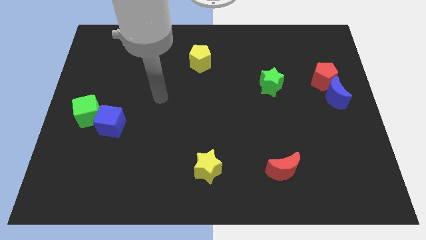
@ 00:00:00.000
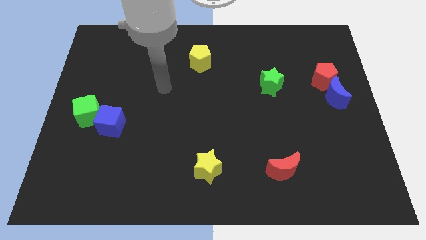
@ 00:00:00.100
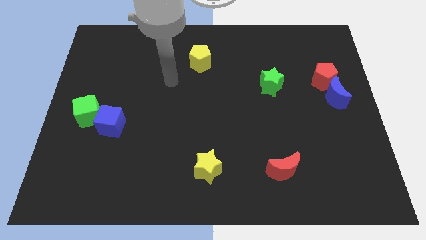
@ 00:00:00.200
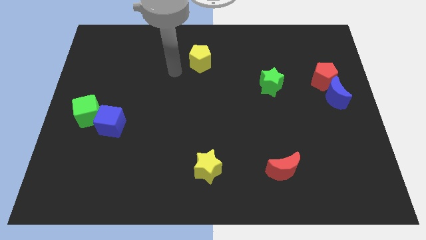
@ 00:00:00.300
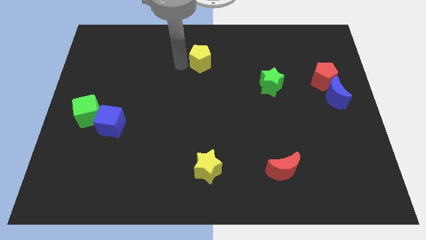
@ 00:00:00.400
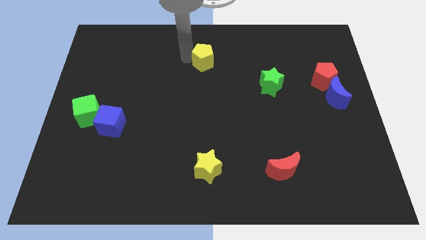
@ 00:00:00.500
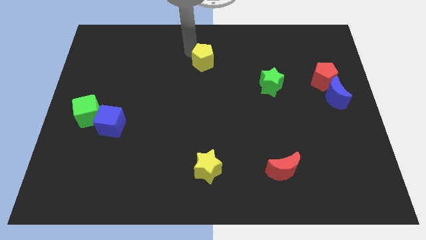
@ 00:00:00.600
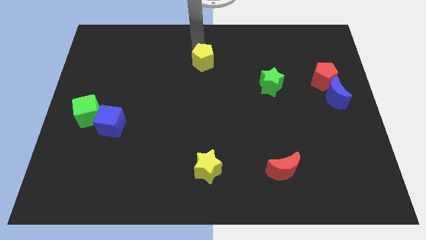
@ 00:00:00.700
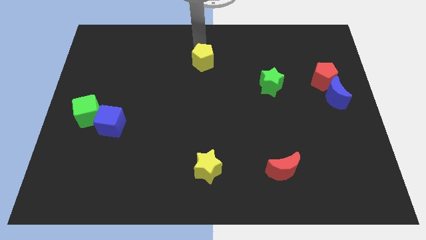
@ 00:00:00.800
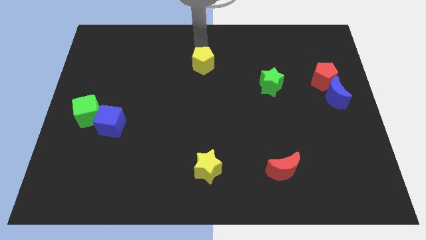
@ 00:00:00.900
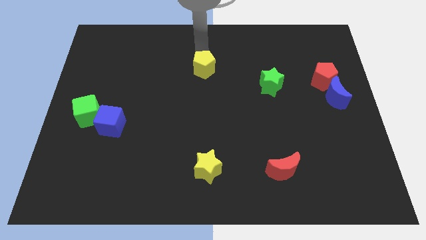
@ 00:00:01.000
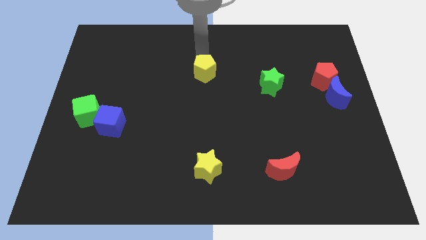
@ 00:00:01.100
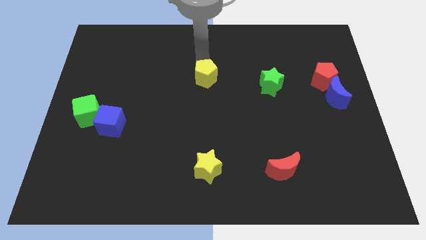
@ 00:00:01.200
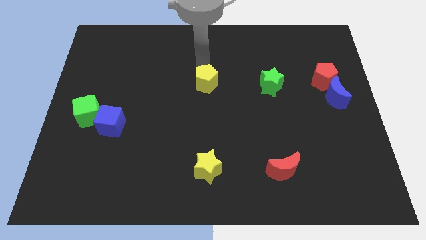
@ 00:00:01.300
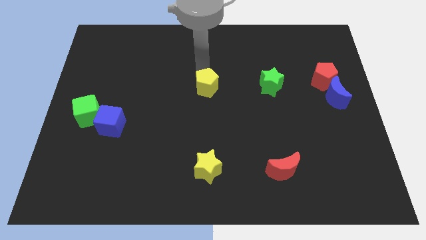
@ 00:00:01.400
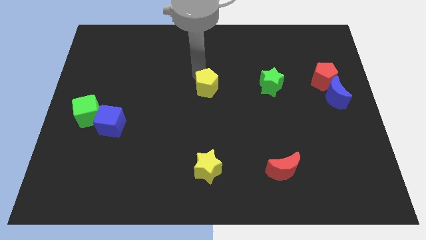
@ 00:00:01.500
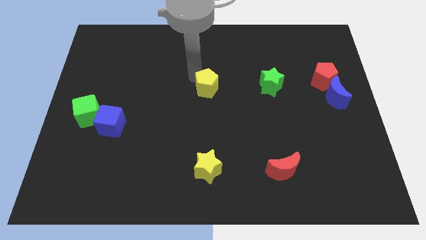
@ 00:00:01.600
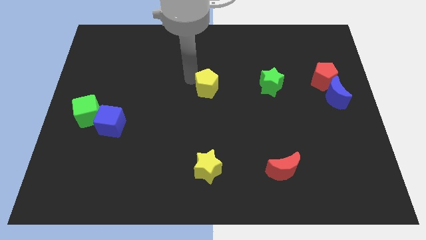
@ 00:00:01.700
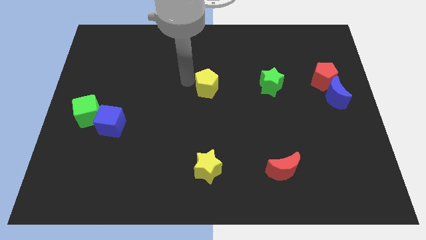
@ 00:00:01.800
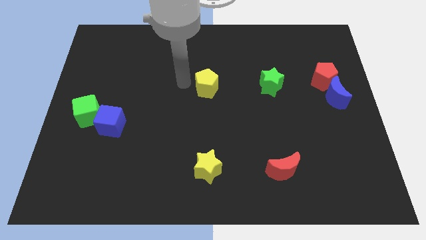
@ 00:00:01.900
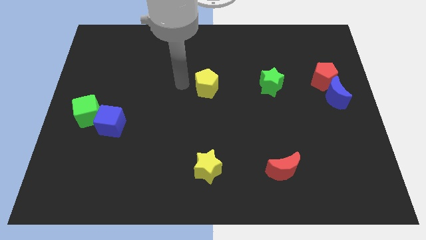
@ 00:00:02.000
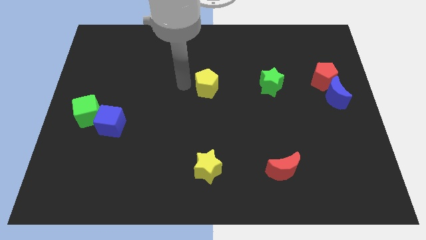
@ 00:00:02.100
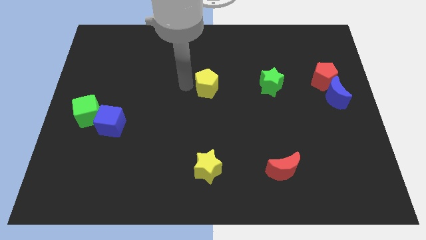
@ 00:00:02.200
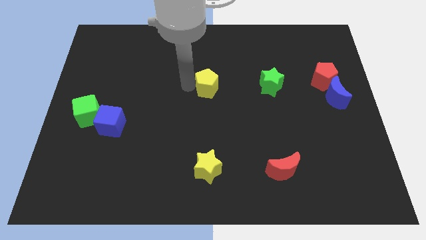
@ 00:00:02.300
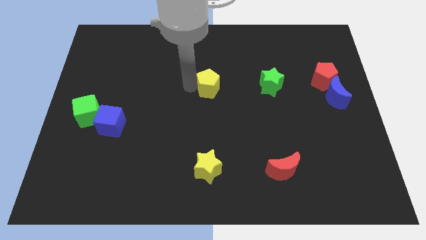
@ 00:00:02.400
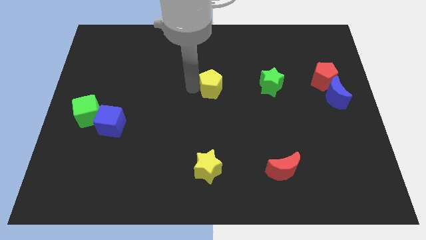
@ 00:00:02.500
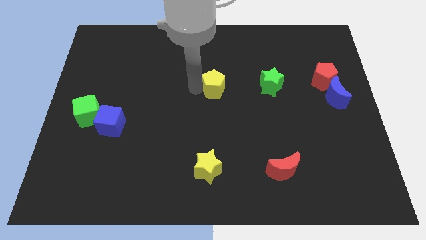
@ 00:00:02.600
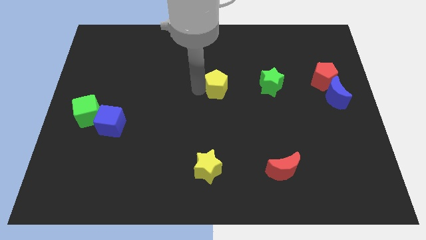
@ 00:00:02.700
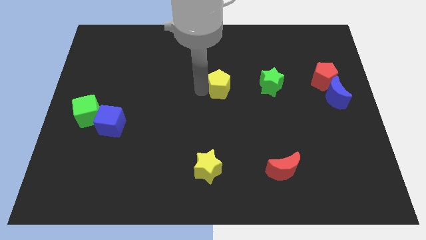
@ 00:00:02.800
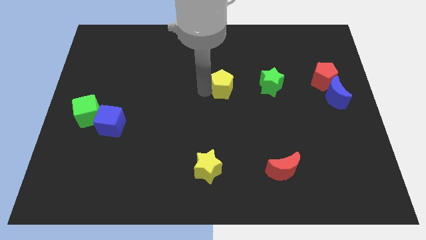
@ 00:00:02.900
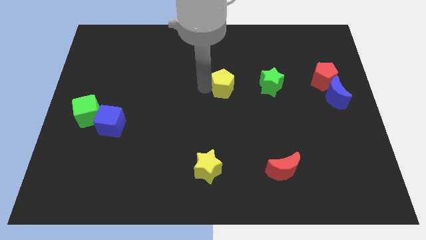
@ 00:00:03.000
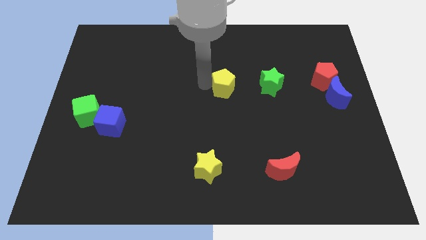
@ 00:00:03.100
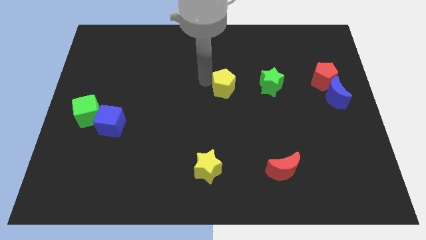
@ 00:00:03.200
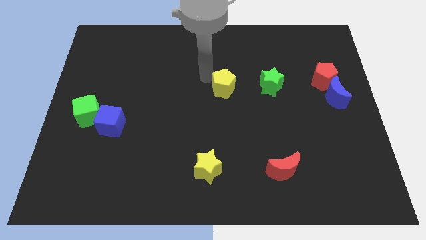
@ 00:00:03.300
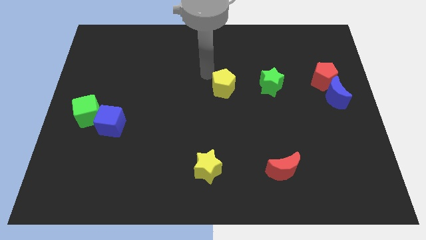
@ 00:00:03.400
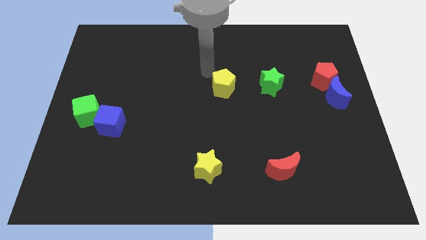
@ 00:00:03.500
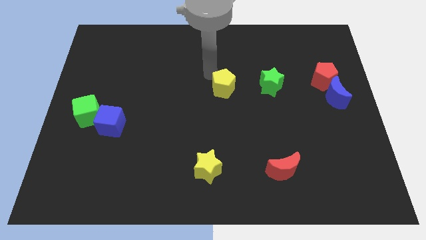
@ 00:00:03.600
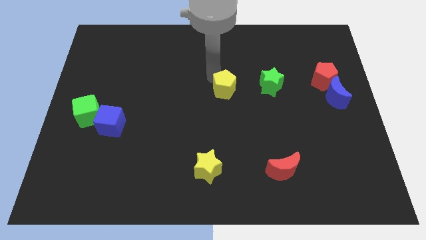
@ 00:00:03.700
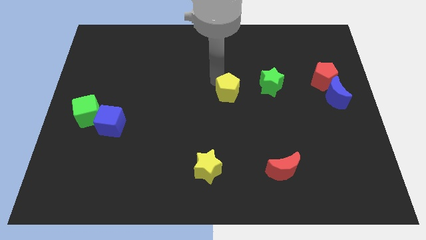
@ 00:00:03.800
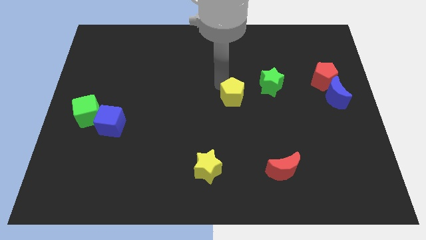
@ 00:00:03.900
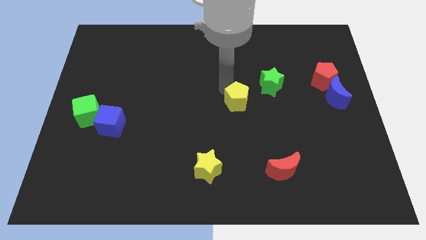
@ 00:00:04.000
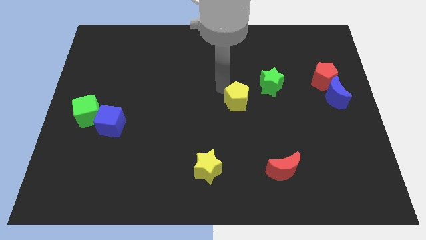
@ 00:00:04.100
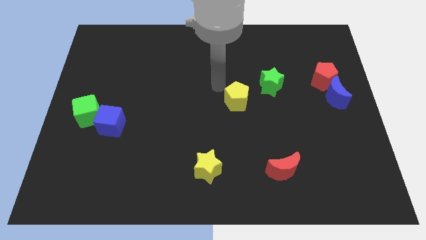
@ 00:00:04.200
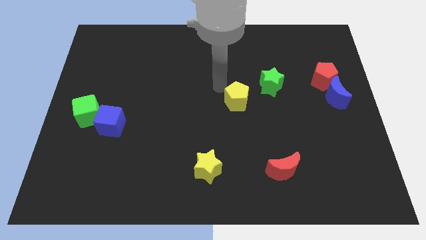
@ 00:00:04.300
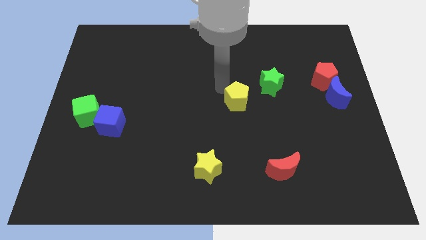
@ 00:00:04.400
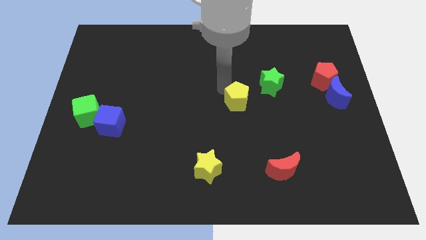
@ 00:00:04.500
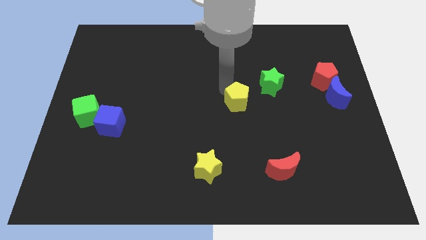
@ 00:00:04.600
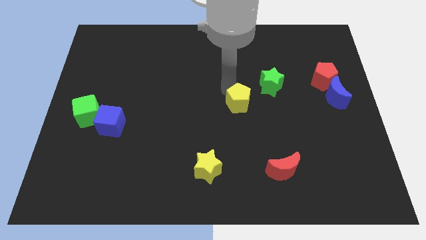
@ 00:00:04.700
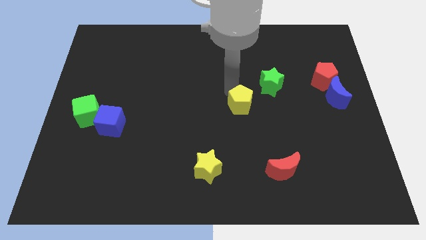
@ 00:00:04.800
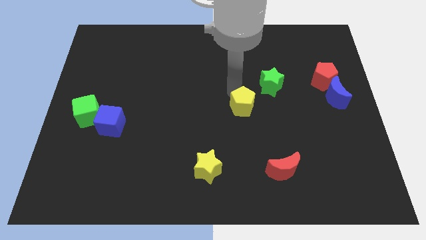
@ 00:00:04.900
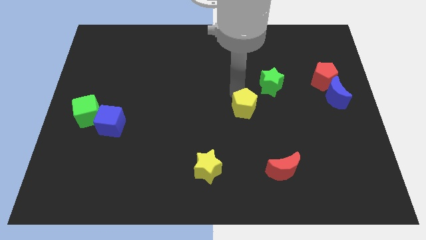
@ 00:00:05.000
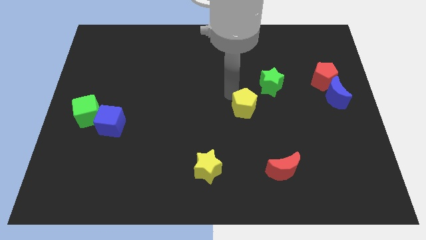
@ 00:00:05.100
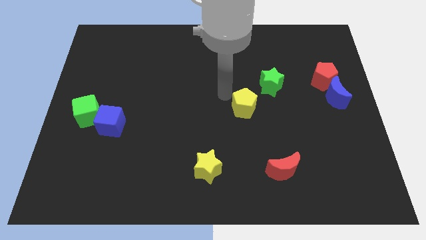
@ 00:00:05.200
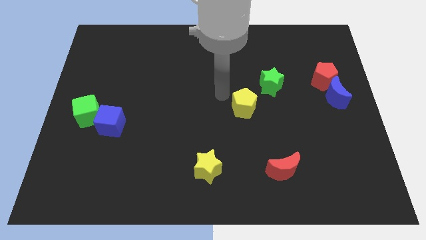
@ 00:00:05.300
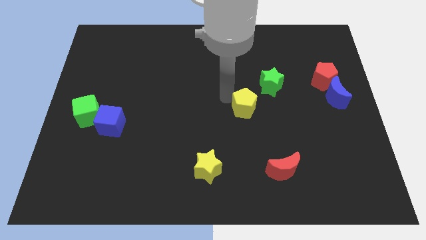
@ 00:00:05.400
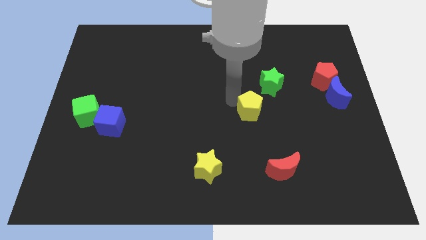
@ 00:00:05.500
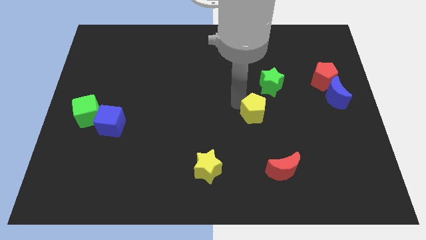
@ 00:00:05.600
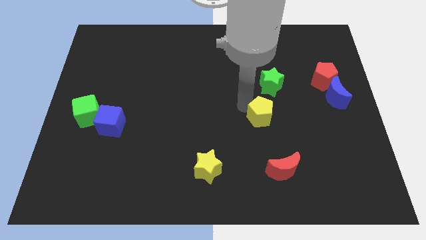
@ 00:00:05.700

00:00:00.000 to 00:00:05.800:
move the yellow pentagon to the top side of the red moon

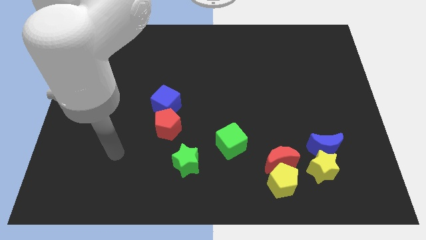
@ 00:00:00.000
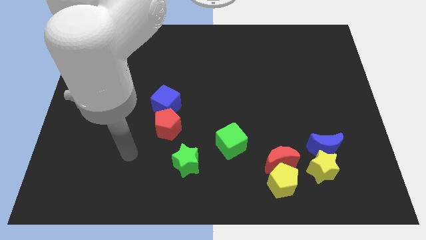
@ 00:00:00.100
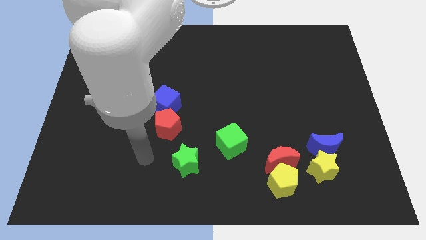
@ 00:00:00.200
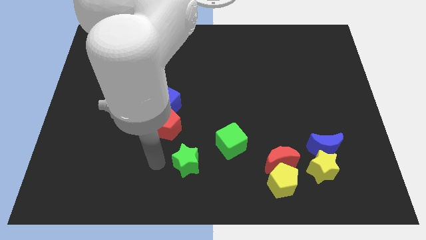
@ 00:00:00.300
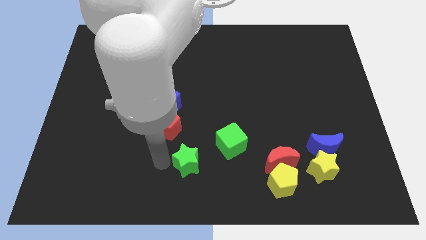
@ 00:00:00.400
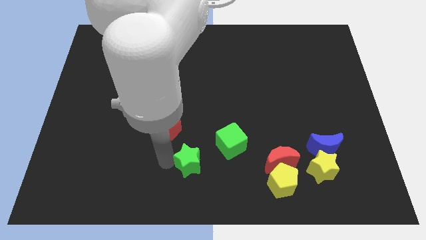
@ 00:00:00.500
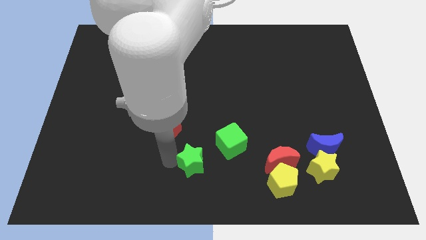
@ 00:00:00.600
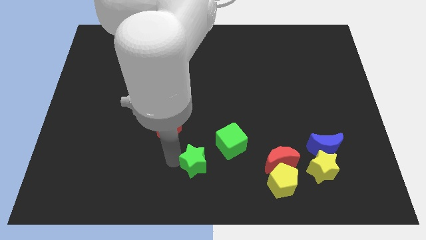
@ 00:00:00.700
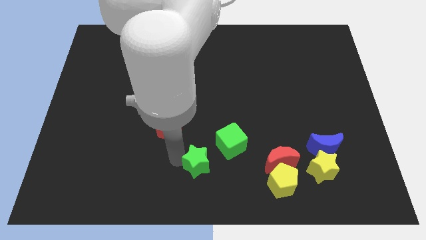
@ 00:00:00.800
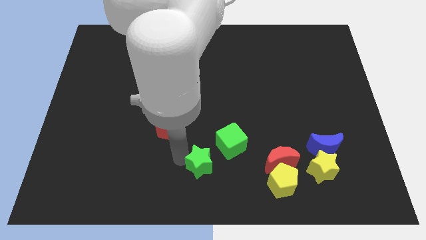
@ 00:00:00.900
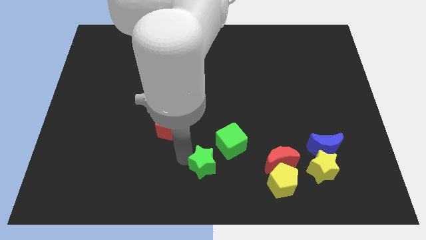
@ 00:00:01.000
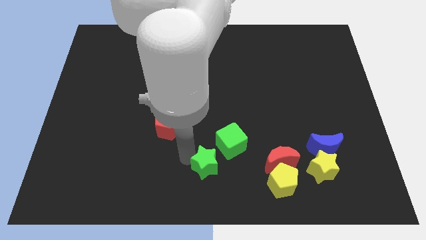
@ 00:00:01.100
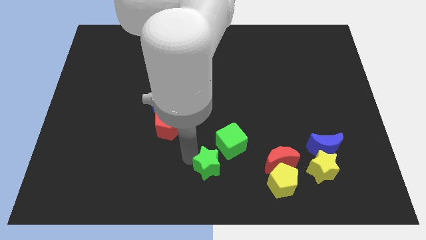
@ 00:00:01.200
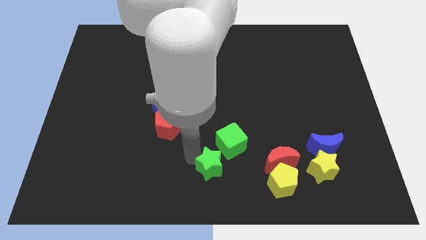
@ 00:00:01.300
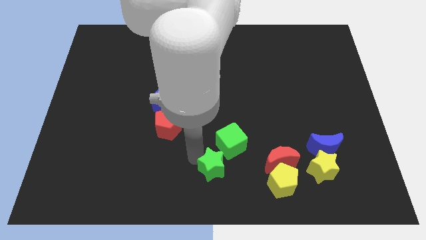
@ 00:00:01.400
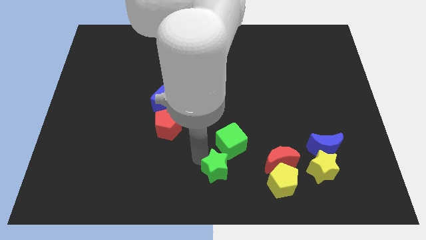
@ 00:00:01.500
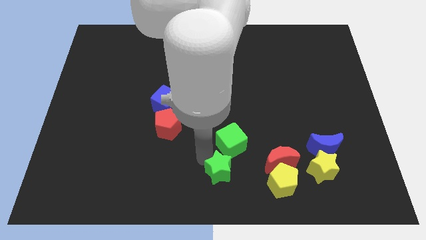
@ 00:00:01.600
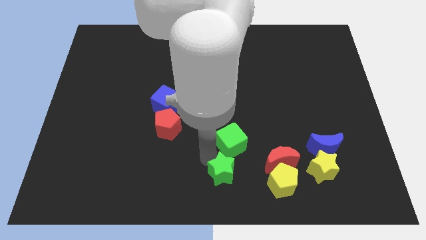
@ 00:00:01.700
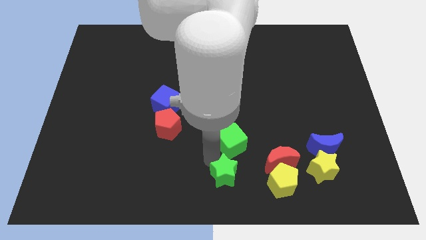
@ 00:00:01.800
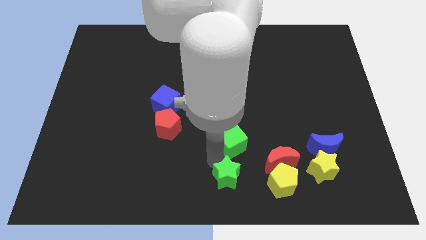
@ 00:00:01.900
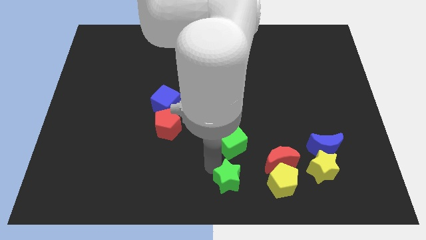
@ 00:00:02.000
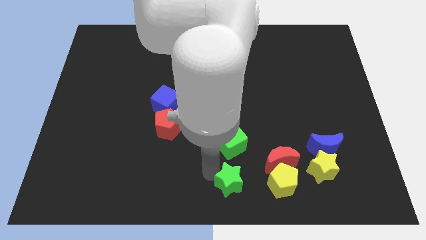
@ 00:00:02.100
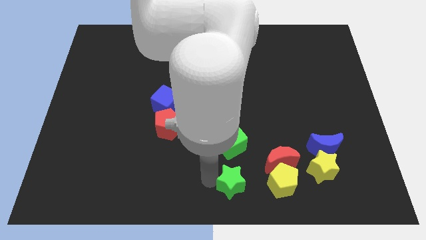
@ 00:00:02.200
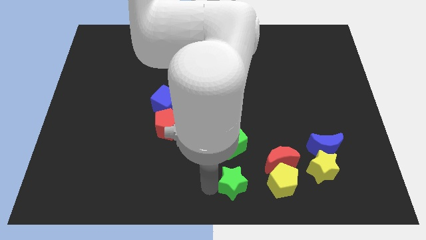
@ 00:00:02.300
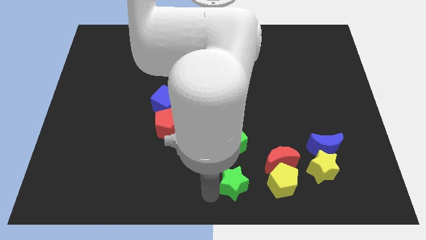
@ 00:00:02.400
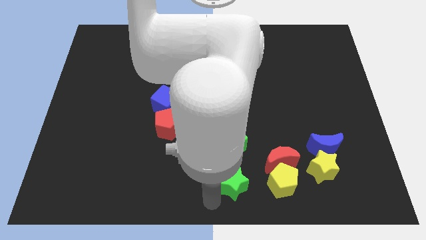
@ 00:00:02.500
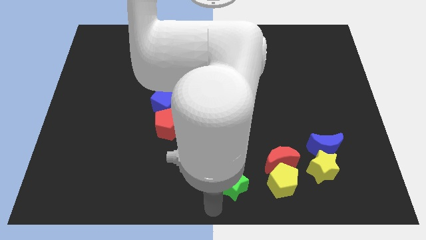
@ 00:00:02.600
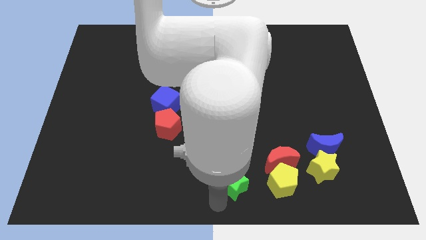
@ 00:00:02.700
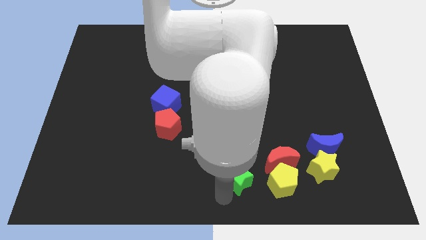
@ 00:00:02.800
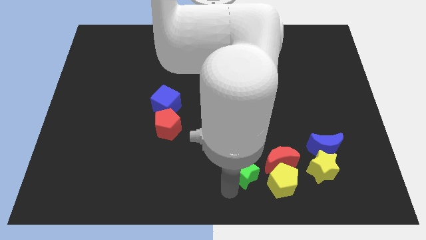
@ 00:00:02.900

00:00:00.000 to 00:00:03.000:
move the green star to the top left of the yellow pentagon
